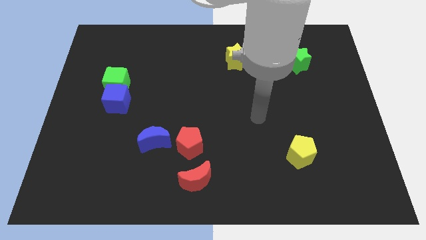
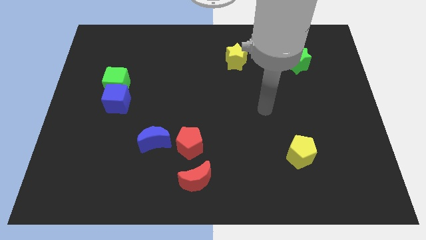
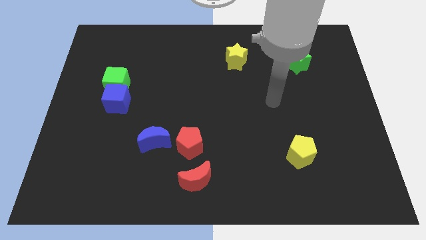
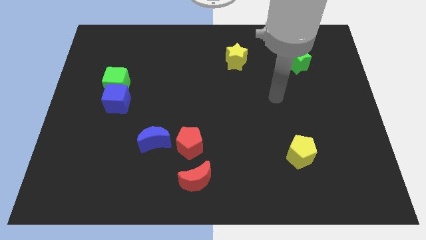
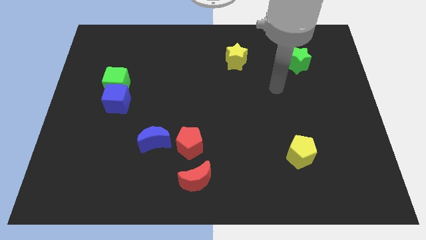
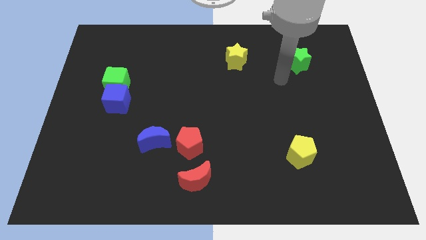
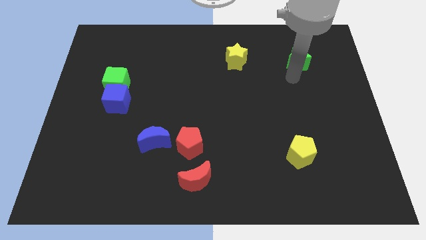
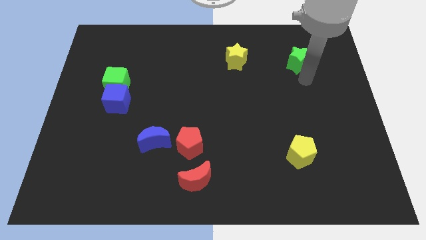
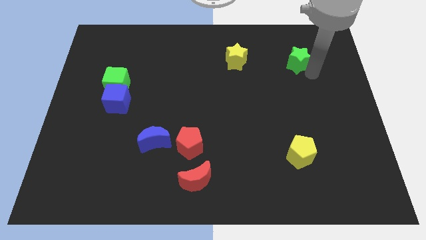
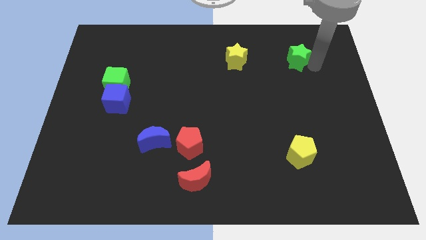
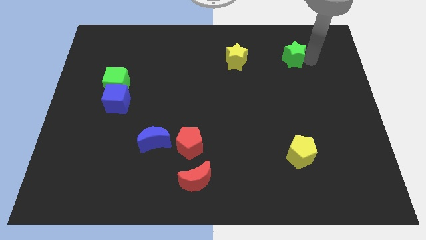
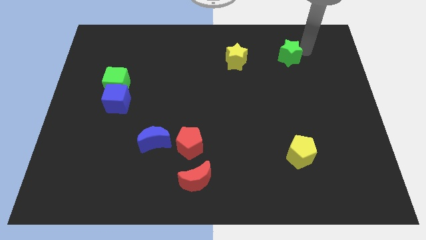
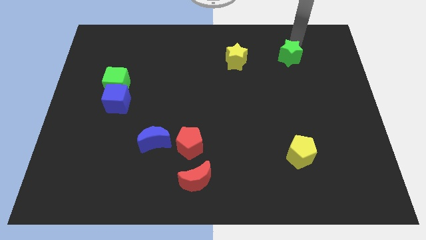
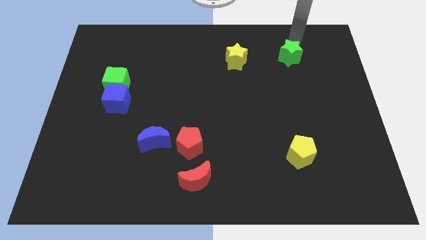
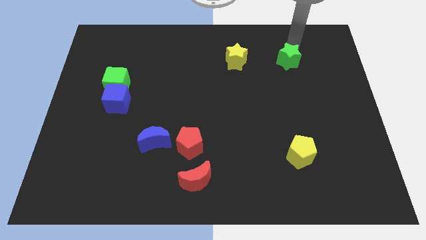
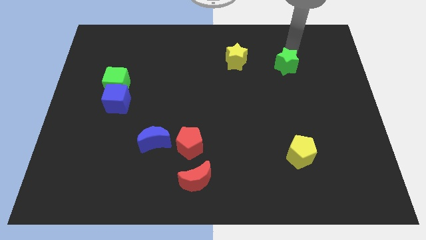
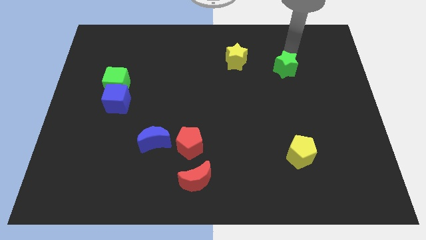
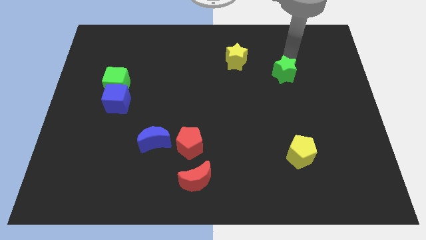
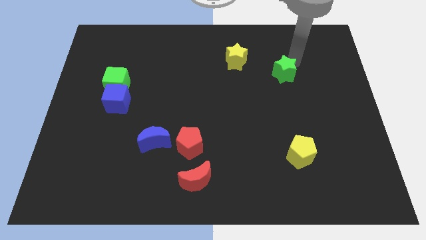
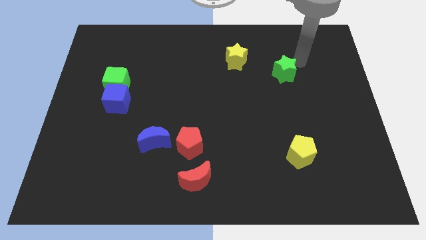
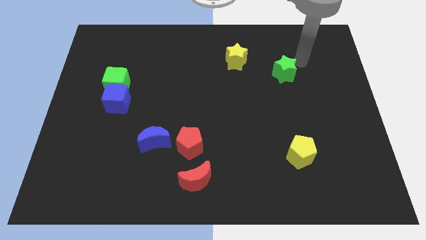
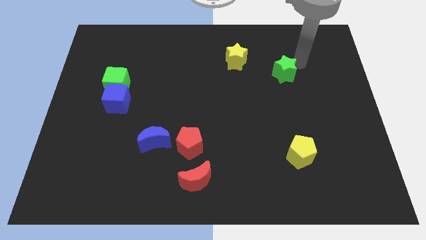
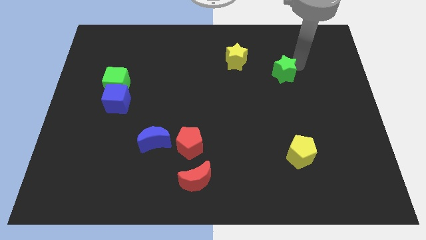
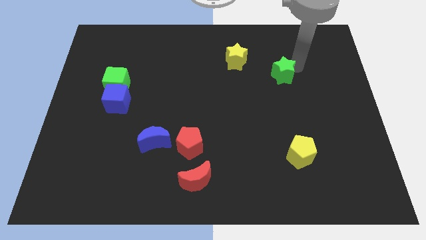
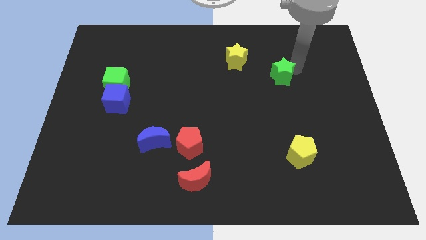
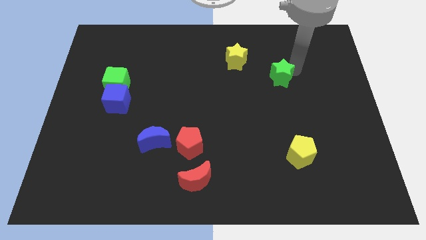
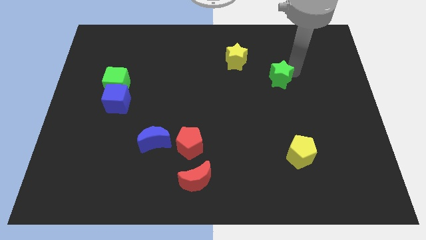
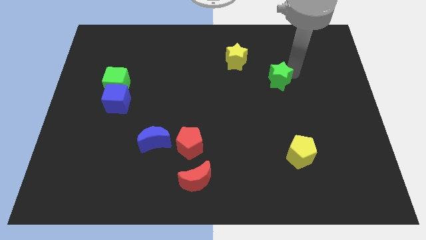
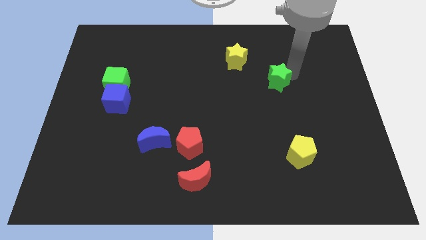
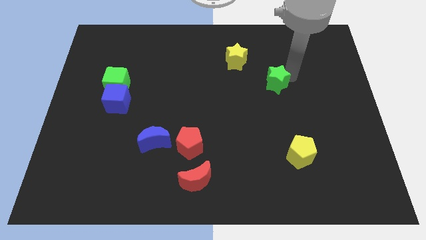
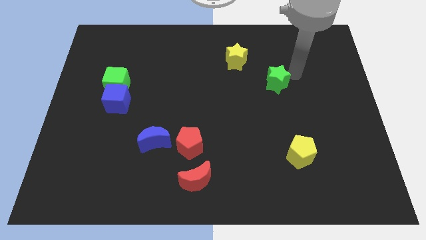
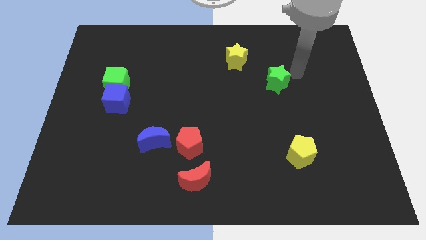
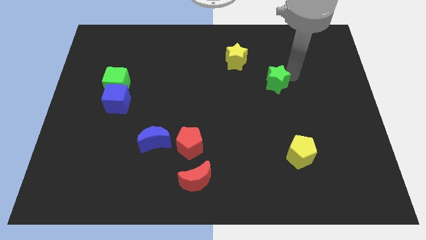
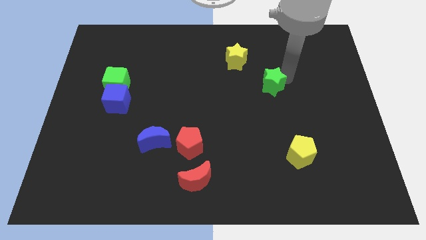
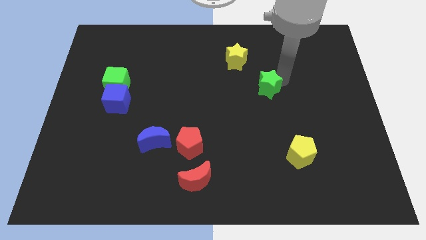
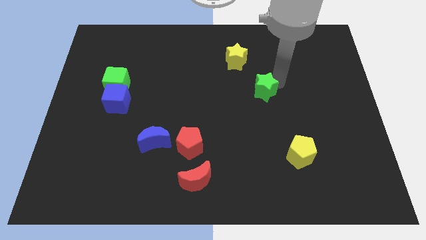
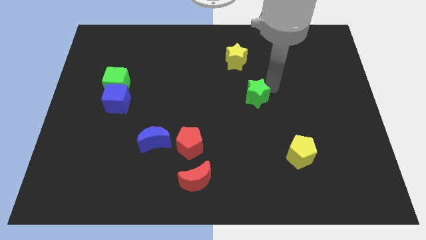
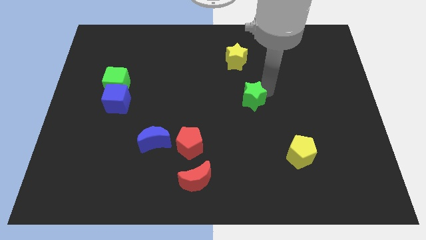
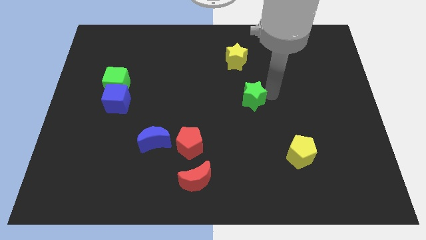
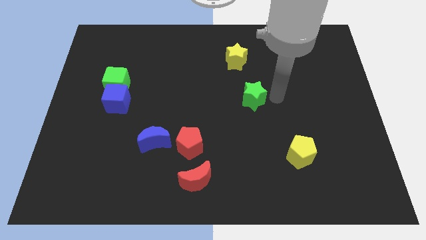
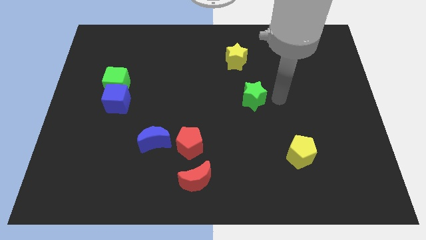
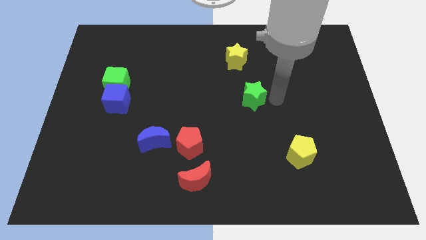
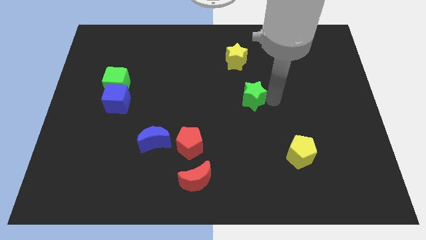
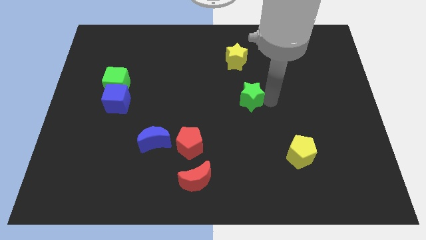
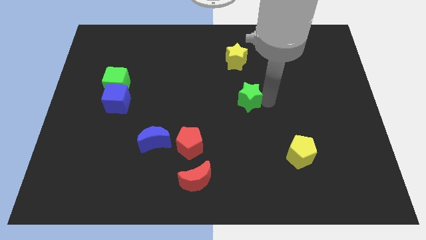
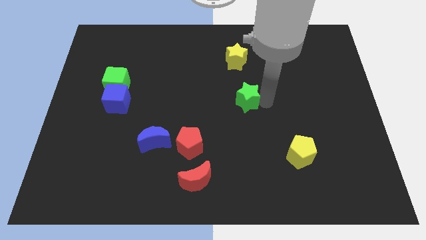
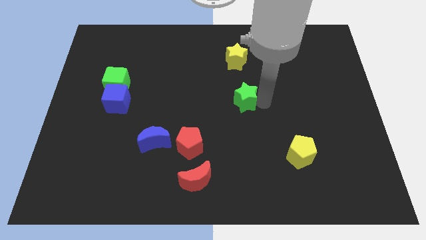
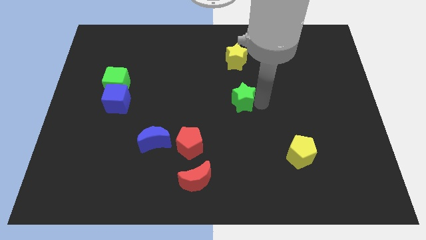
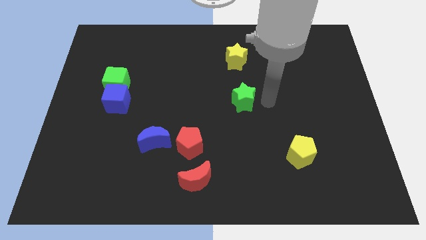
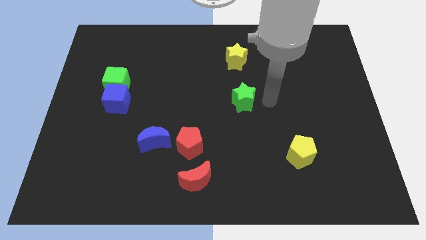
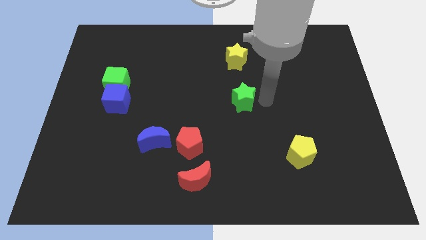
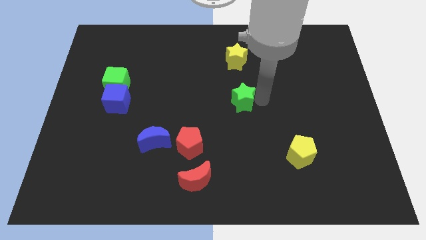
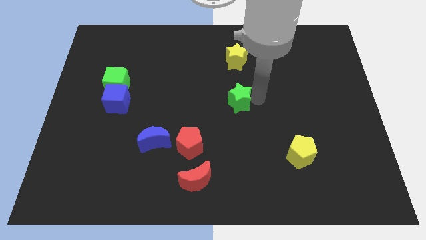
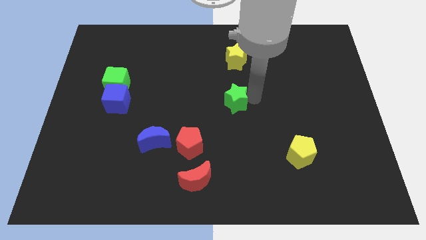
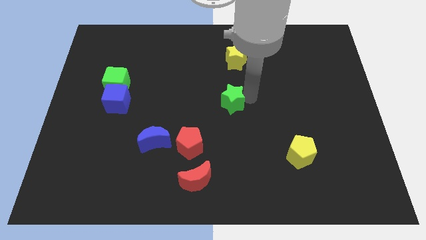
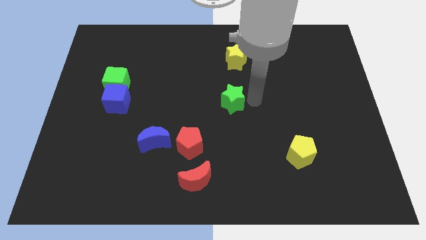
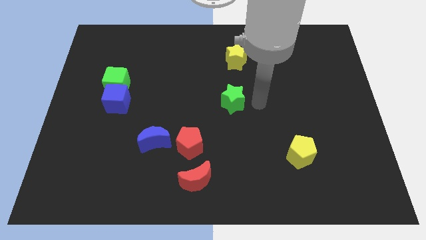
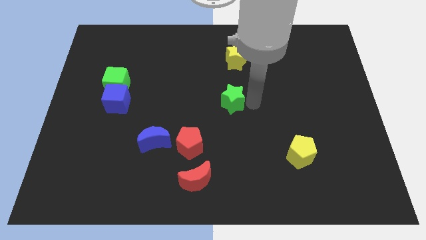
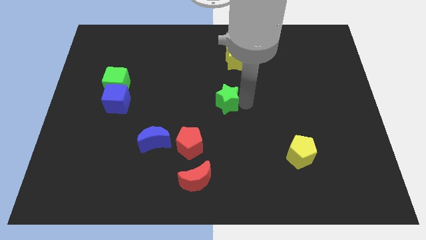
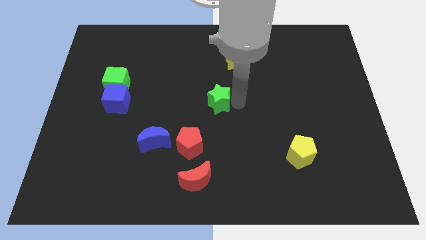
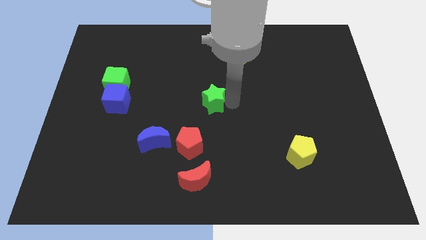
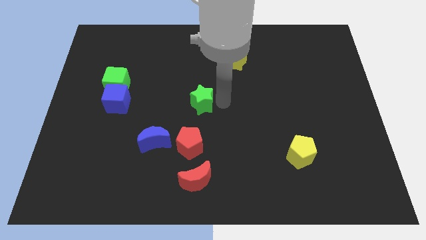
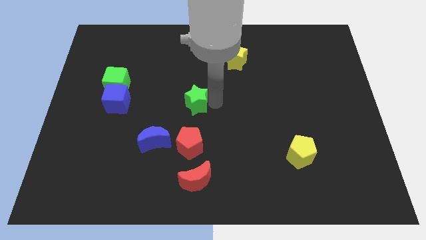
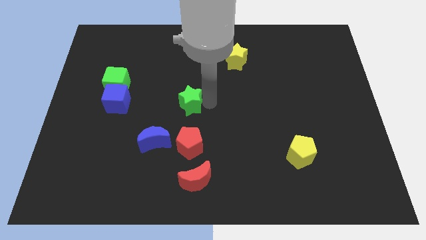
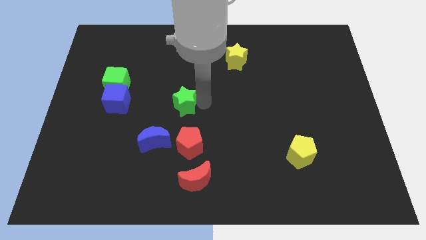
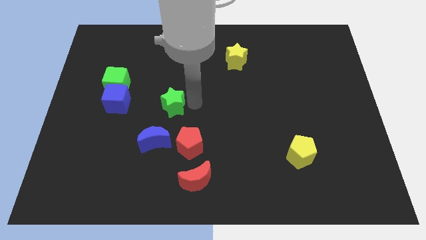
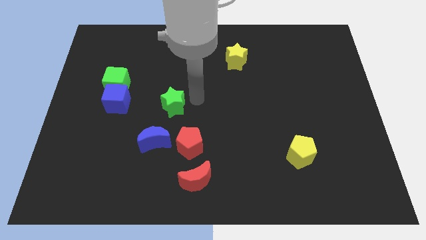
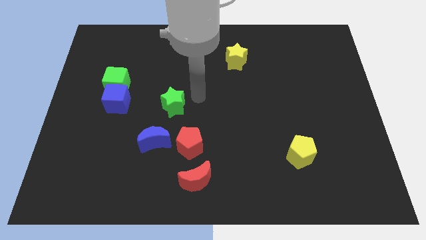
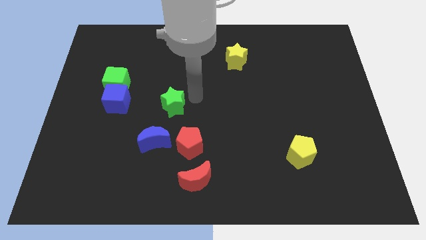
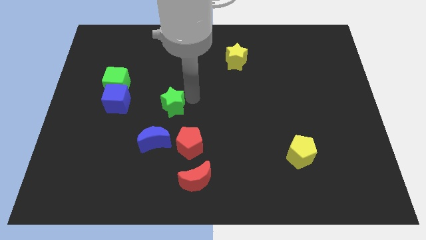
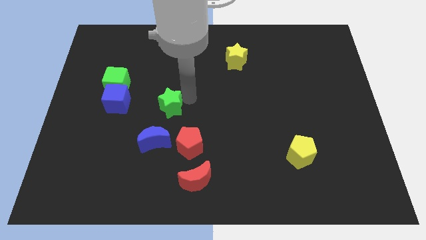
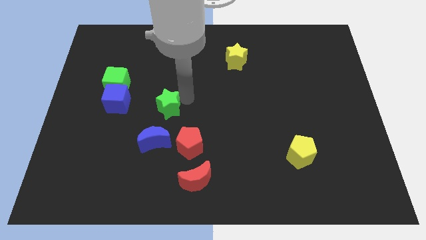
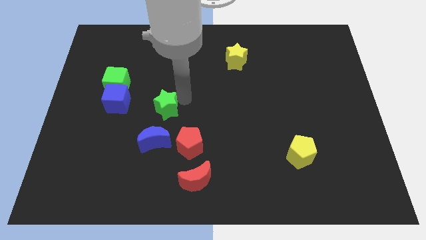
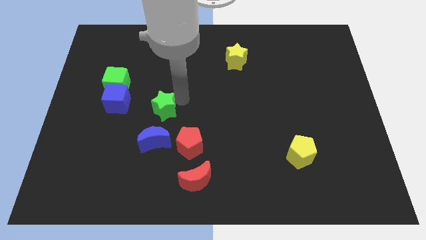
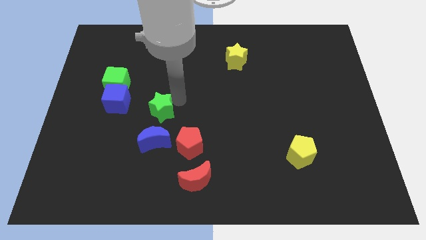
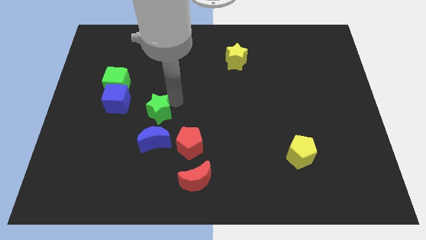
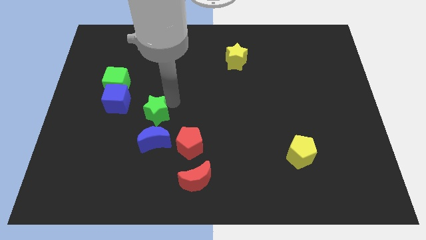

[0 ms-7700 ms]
slide the green star diagonally down and to the right of the blue cube
